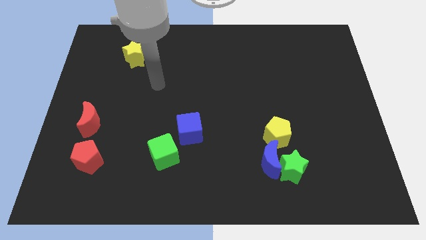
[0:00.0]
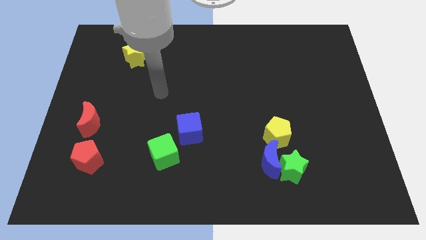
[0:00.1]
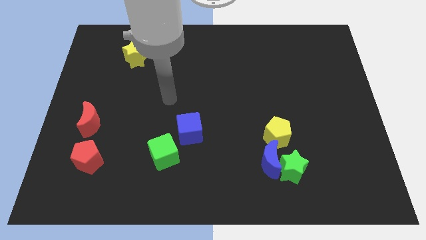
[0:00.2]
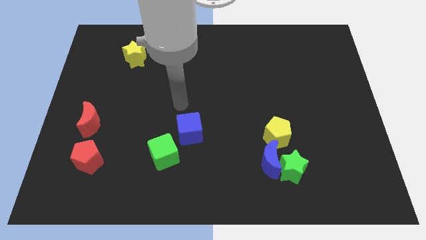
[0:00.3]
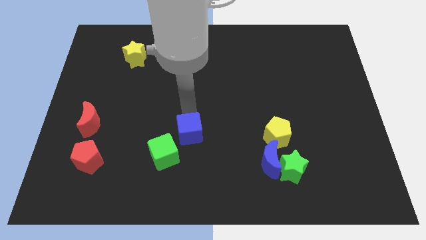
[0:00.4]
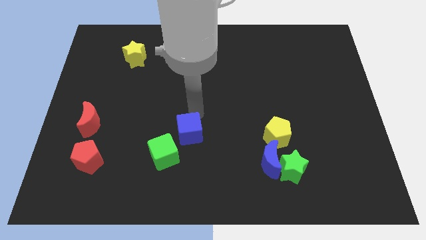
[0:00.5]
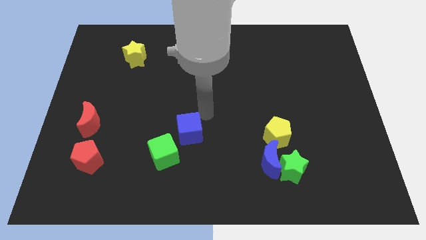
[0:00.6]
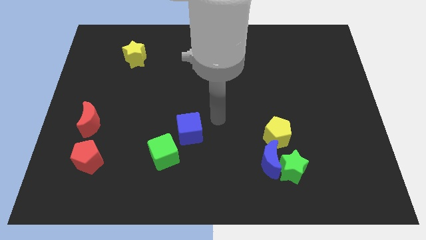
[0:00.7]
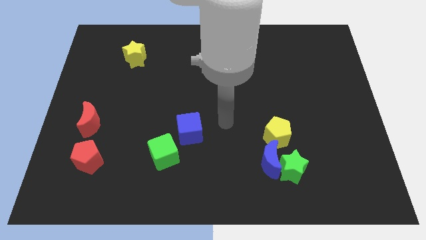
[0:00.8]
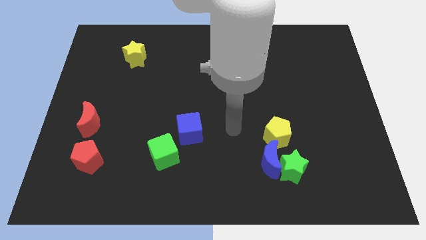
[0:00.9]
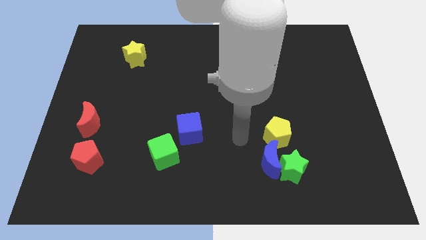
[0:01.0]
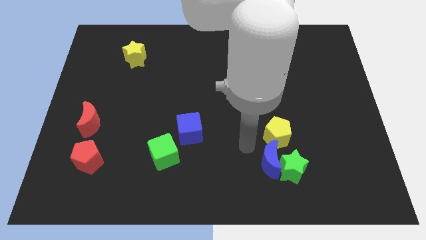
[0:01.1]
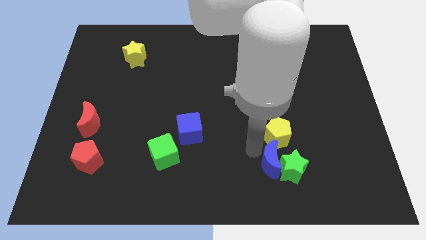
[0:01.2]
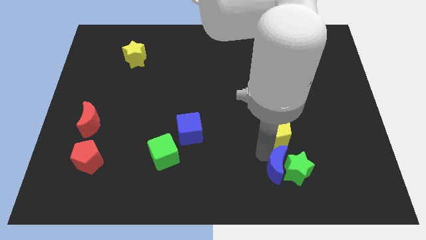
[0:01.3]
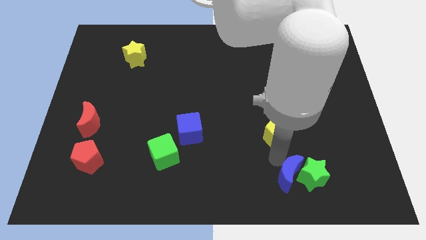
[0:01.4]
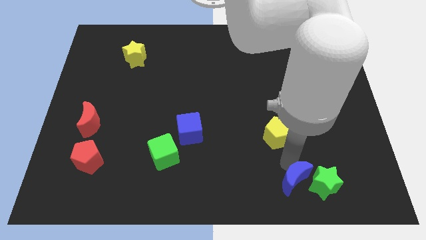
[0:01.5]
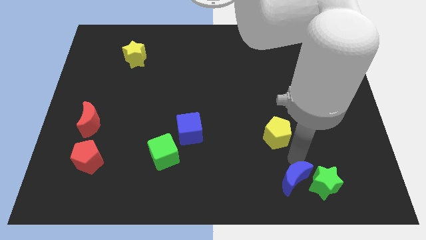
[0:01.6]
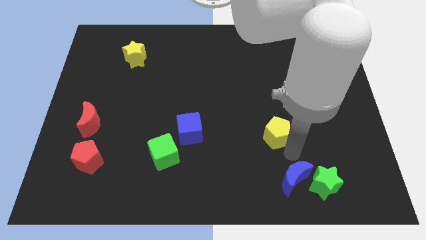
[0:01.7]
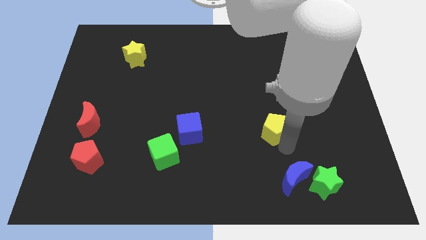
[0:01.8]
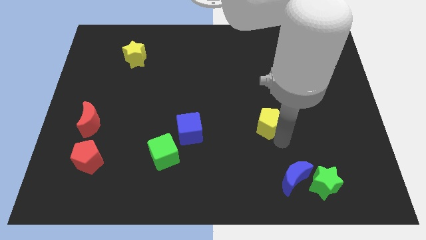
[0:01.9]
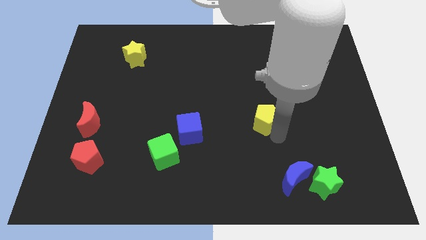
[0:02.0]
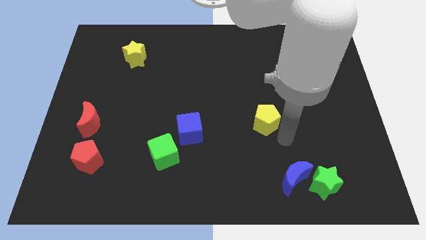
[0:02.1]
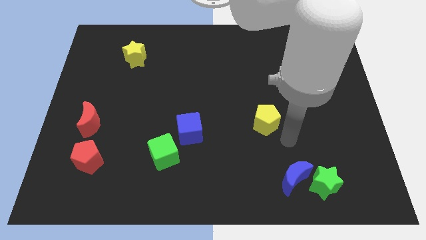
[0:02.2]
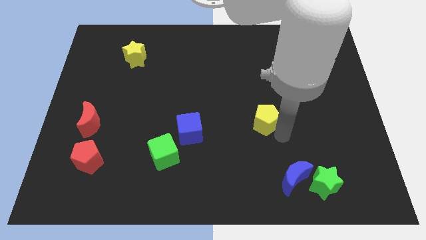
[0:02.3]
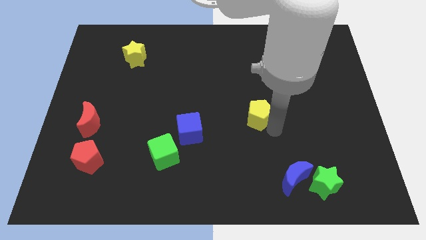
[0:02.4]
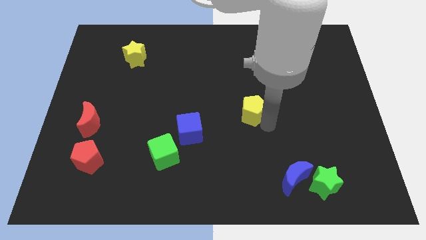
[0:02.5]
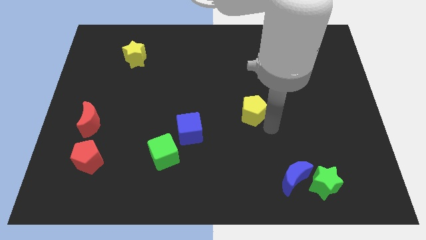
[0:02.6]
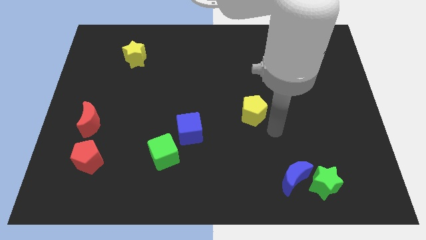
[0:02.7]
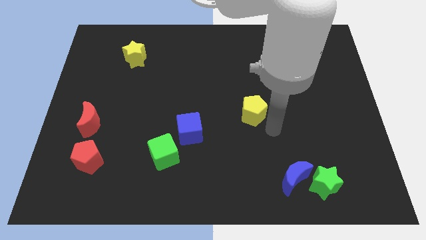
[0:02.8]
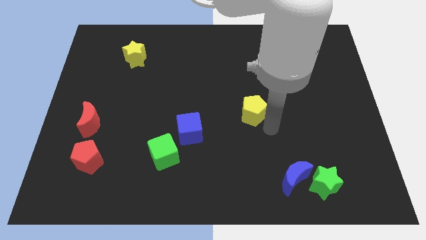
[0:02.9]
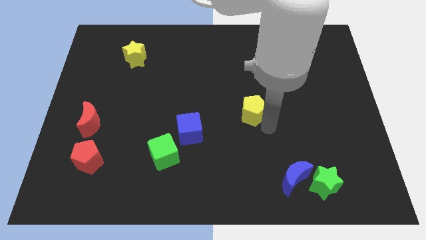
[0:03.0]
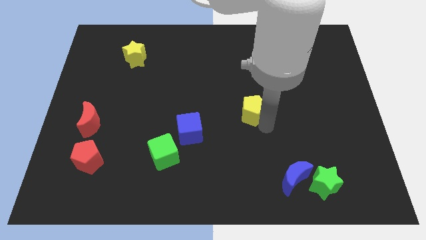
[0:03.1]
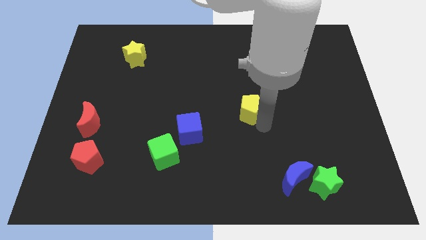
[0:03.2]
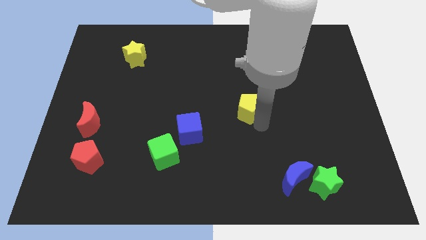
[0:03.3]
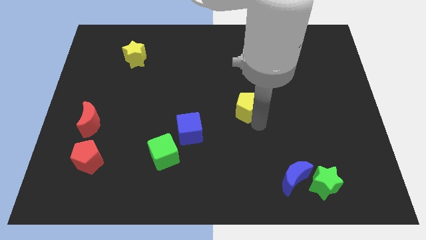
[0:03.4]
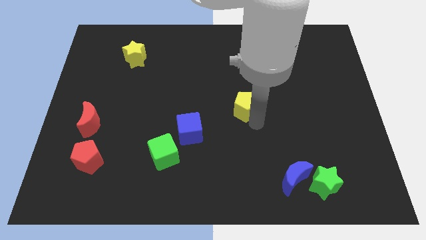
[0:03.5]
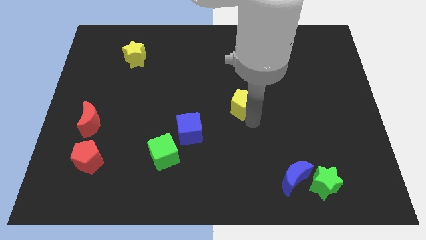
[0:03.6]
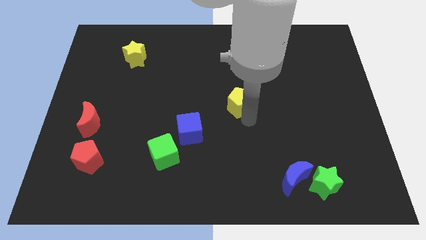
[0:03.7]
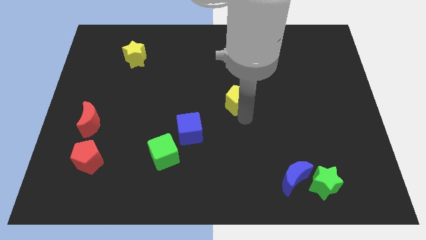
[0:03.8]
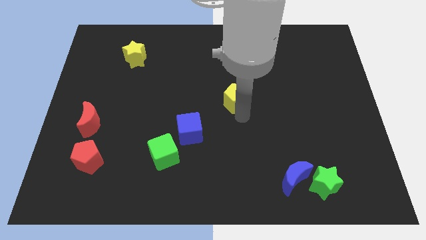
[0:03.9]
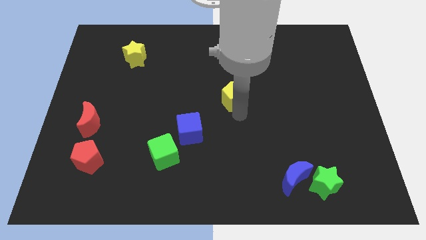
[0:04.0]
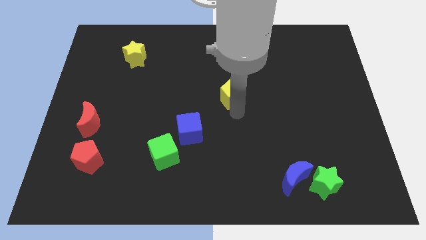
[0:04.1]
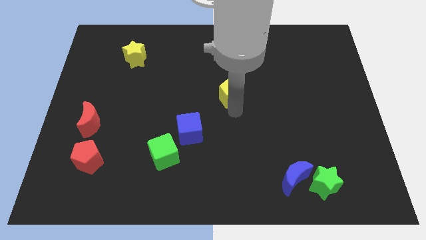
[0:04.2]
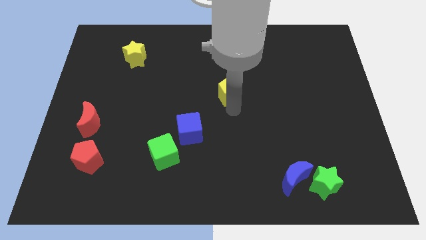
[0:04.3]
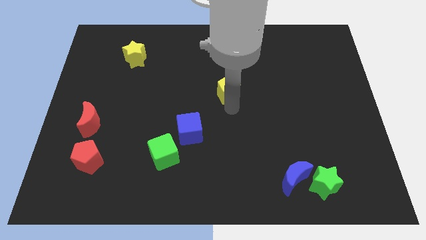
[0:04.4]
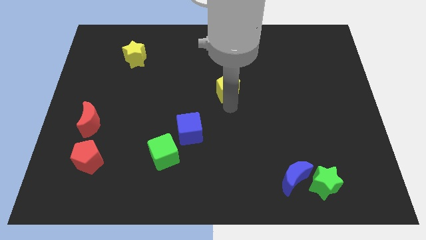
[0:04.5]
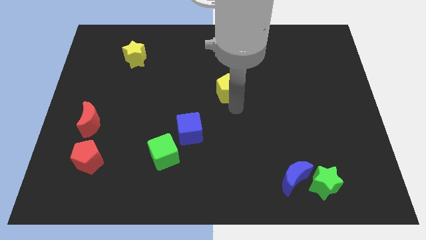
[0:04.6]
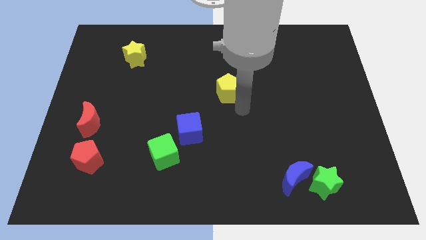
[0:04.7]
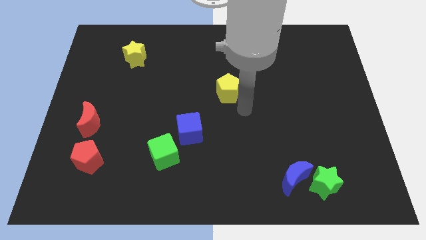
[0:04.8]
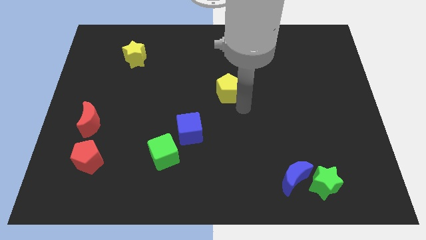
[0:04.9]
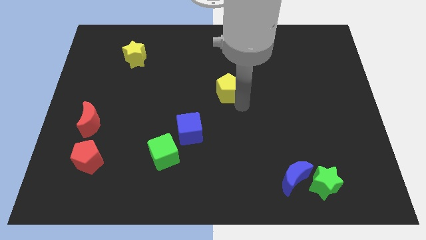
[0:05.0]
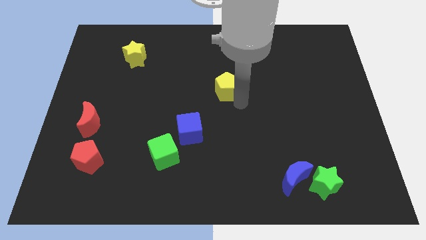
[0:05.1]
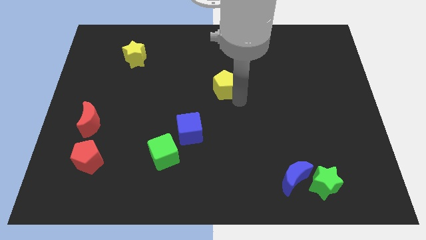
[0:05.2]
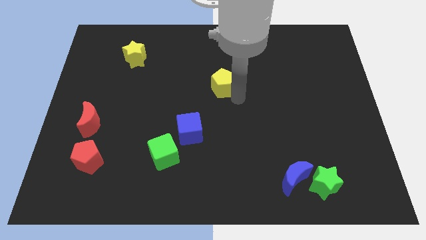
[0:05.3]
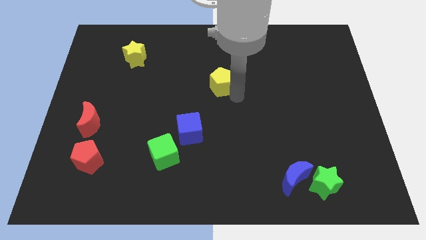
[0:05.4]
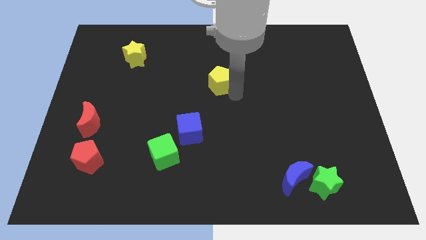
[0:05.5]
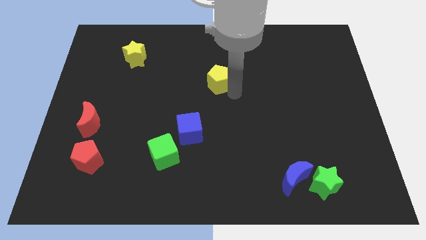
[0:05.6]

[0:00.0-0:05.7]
push the yellow pentagon diagonally upwards and to the left

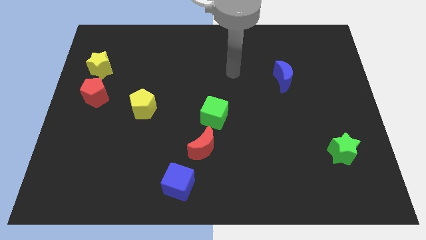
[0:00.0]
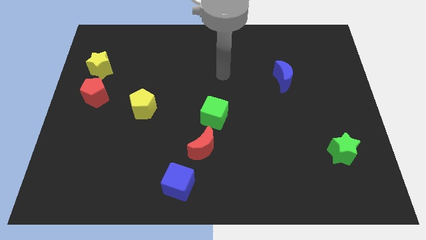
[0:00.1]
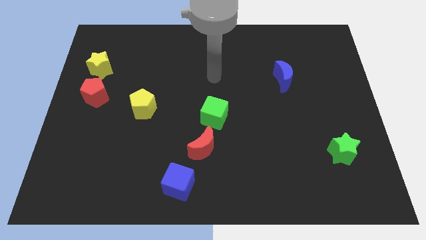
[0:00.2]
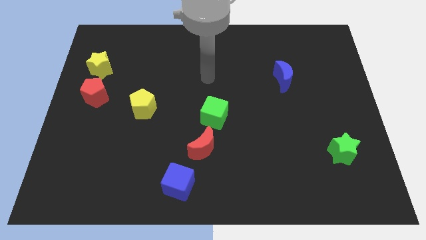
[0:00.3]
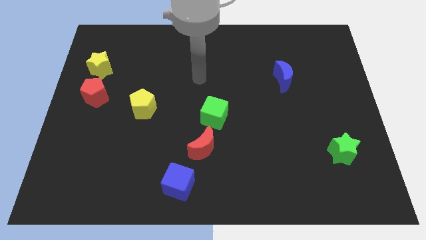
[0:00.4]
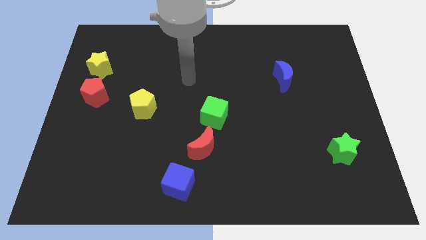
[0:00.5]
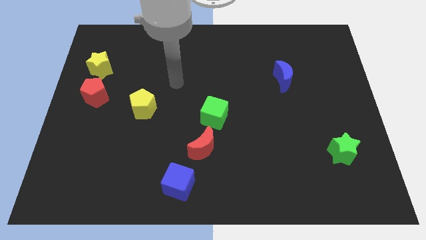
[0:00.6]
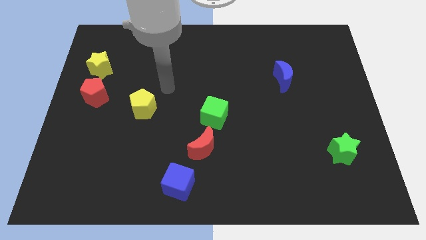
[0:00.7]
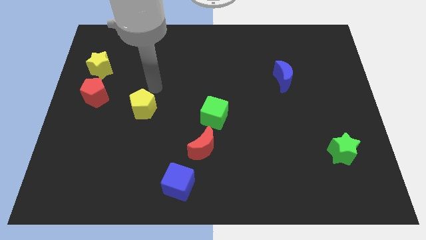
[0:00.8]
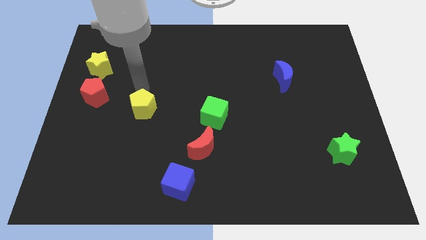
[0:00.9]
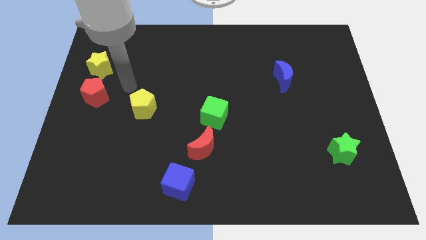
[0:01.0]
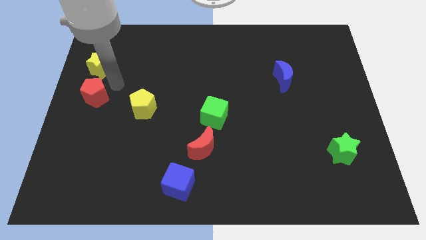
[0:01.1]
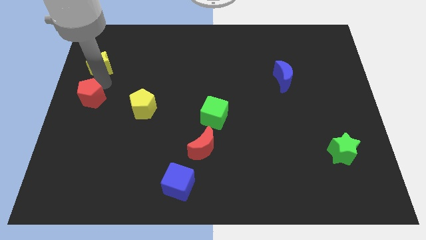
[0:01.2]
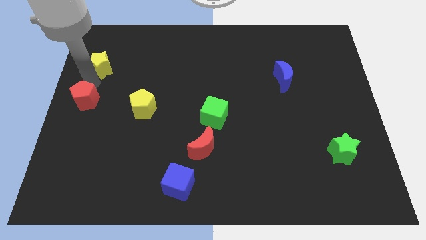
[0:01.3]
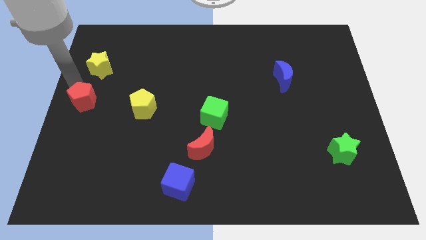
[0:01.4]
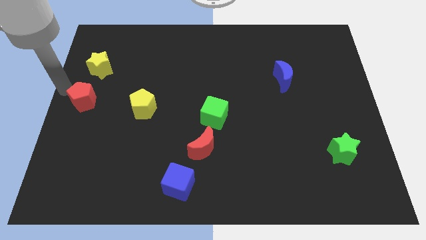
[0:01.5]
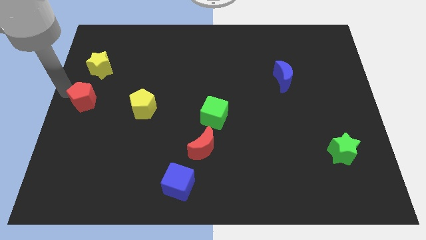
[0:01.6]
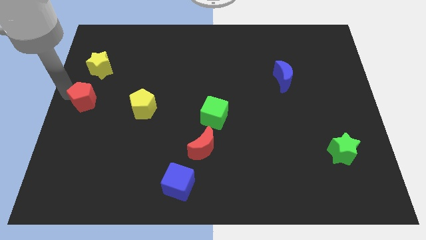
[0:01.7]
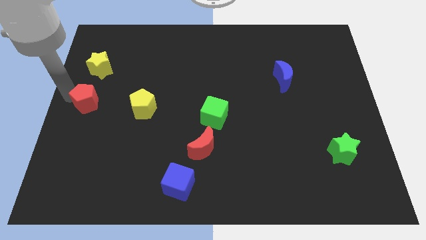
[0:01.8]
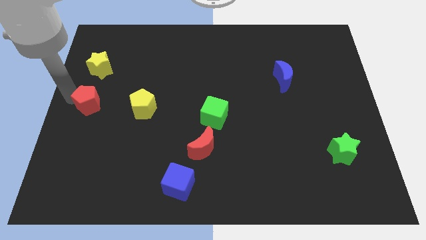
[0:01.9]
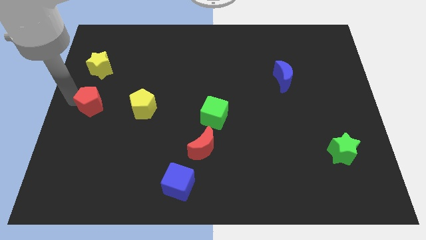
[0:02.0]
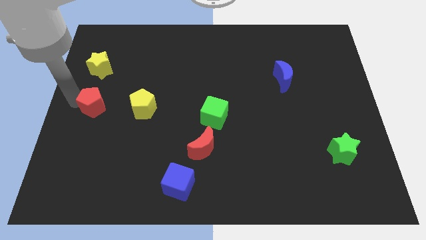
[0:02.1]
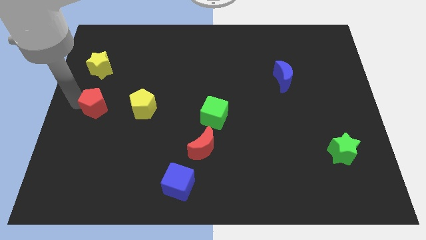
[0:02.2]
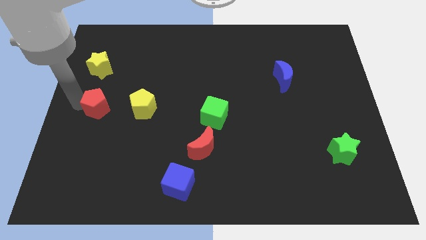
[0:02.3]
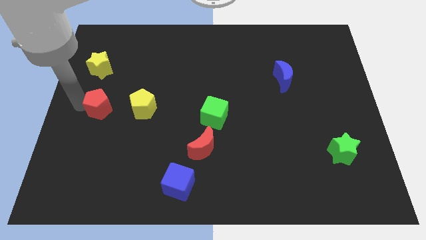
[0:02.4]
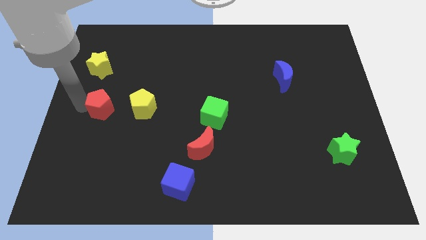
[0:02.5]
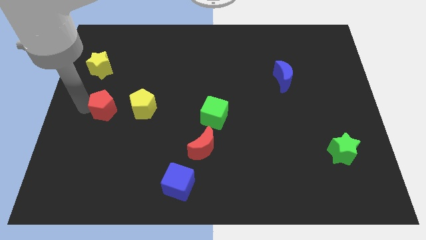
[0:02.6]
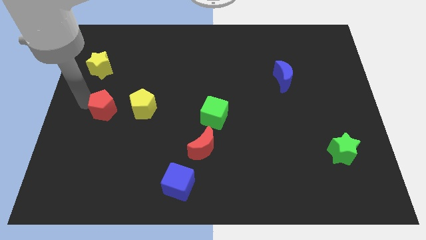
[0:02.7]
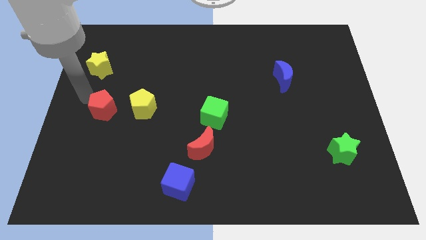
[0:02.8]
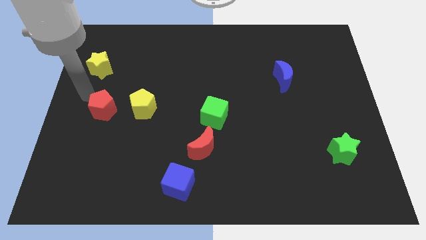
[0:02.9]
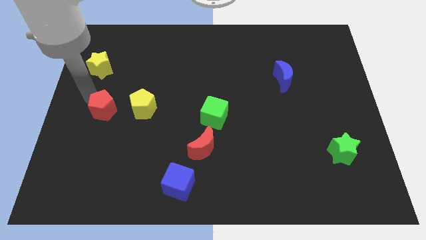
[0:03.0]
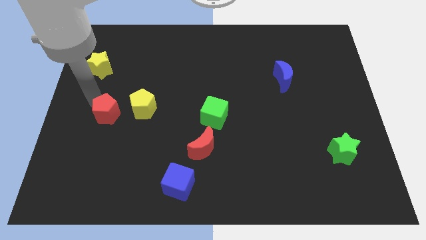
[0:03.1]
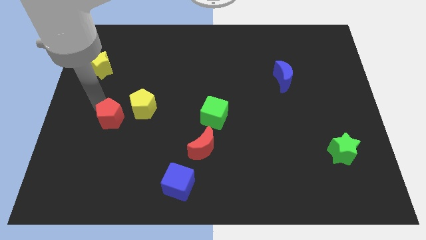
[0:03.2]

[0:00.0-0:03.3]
slightly push the red pentagon down and right
